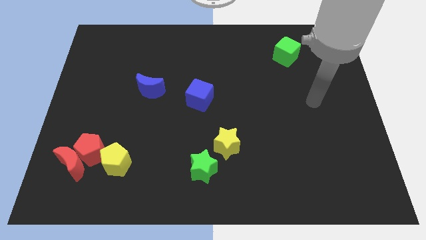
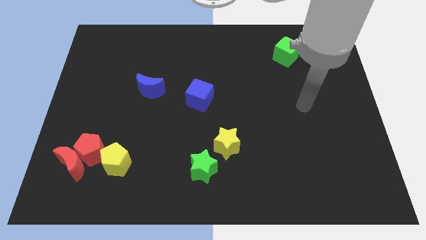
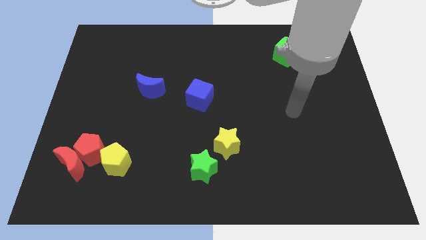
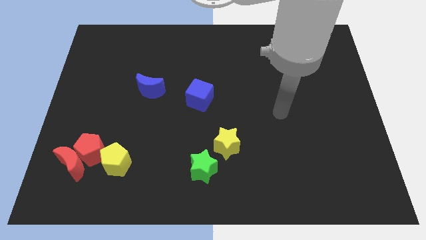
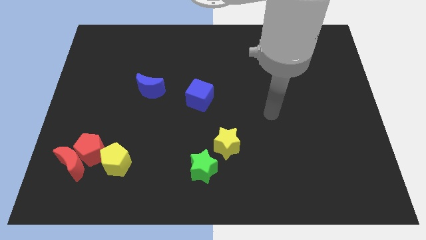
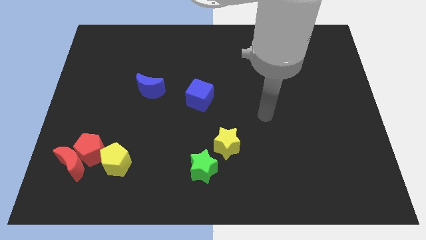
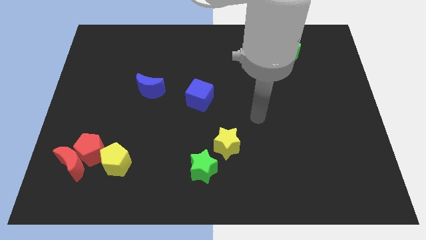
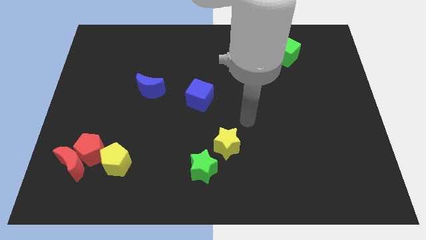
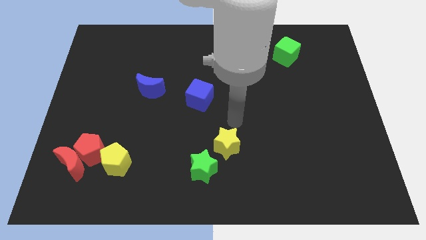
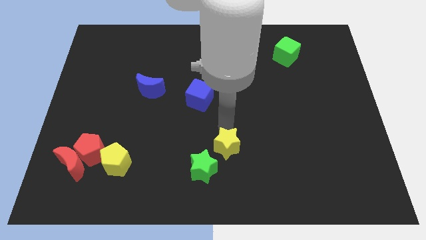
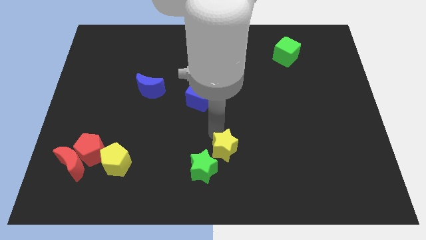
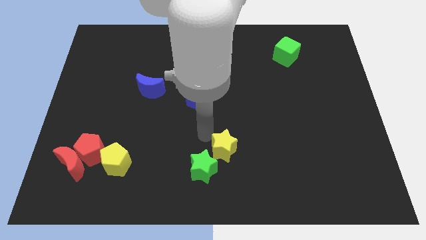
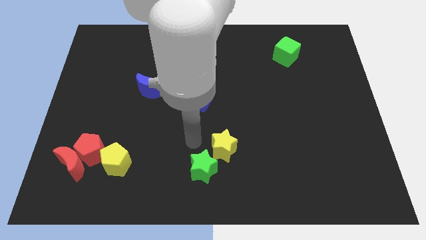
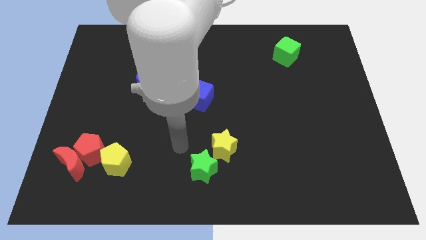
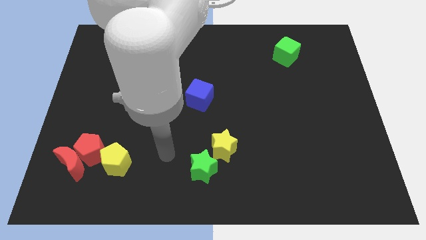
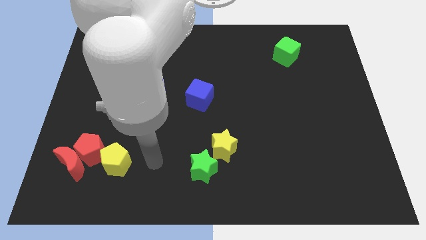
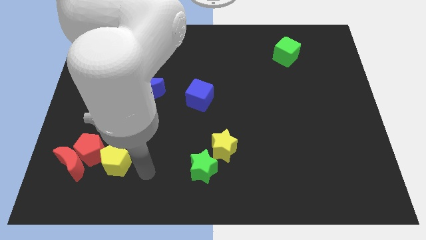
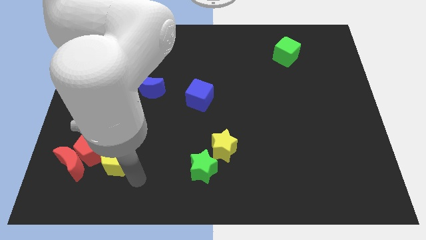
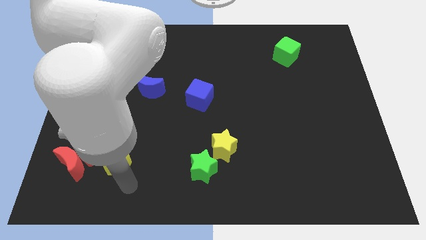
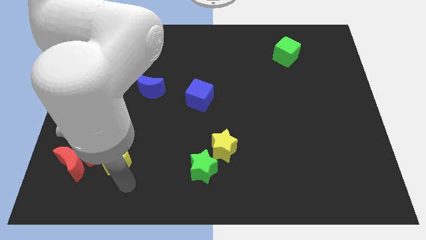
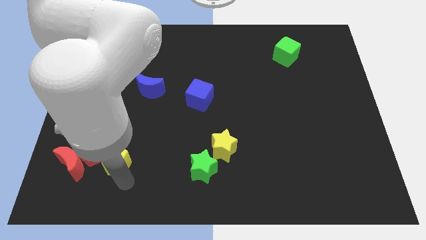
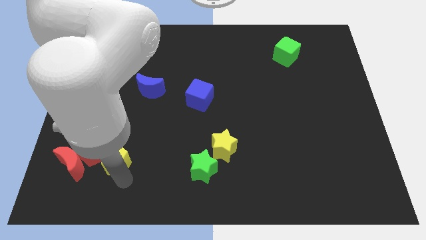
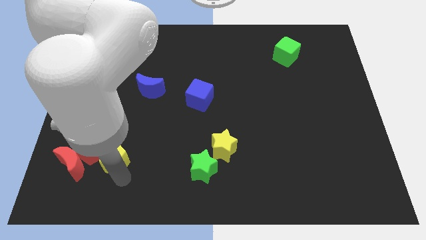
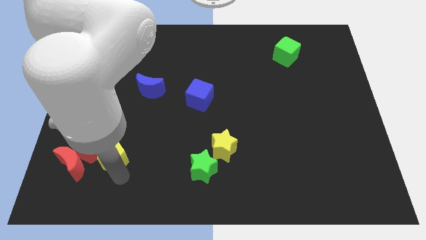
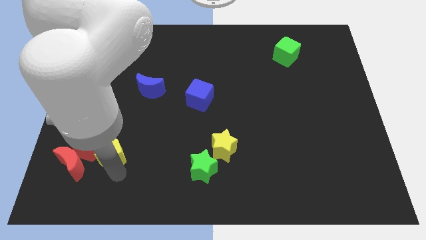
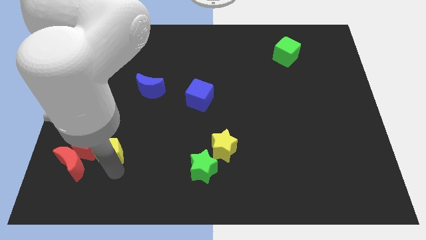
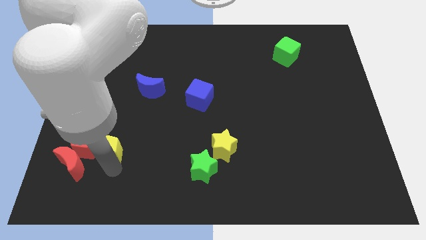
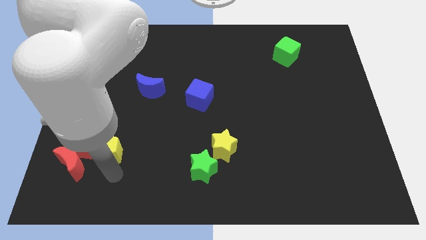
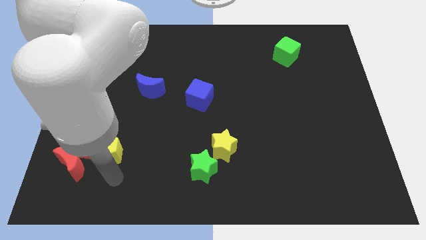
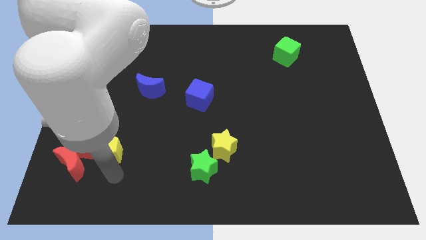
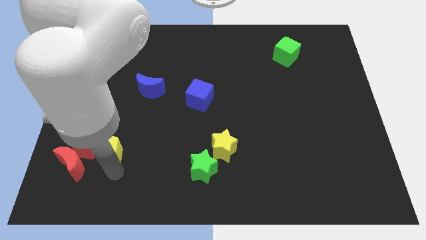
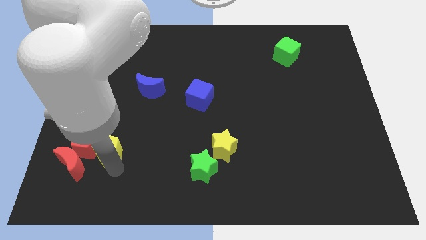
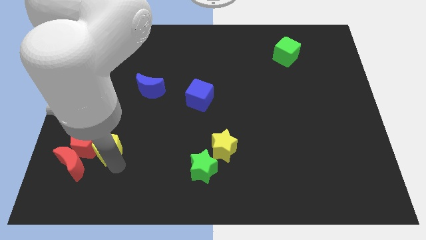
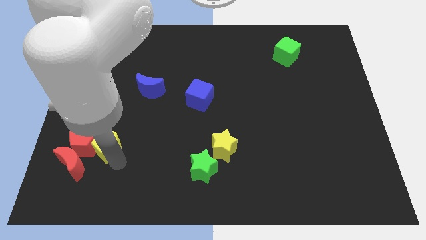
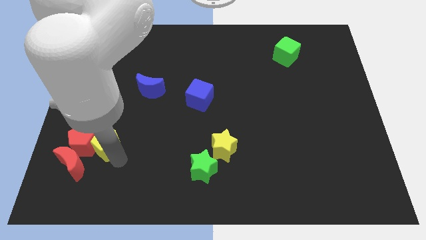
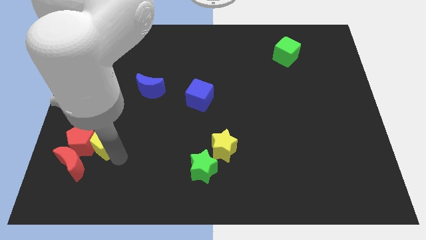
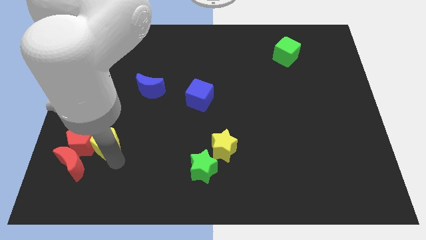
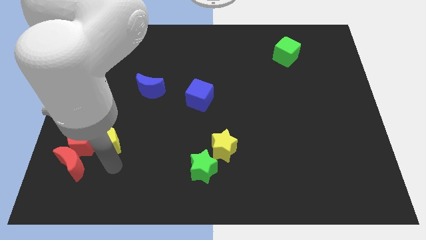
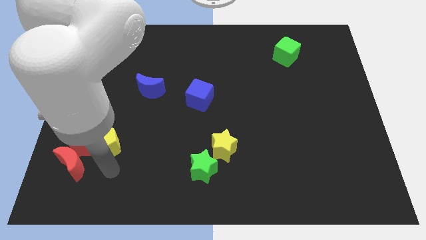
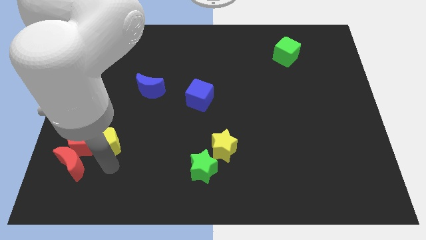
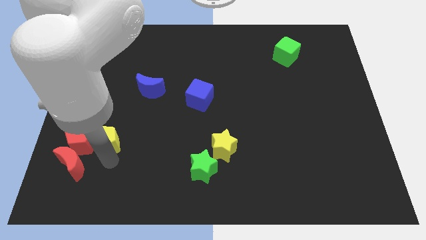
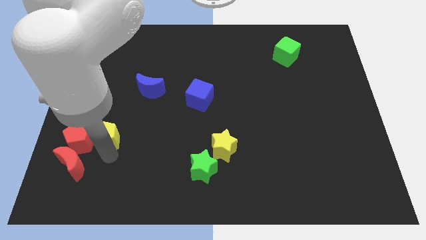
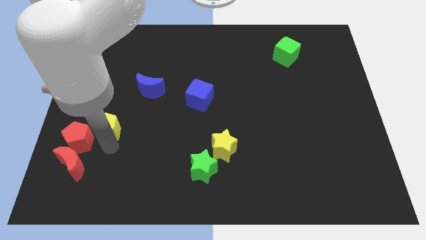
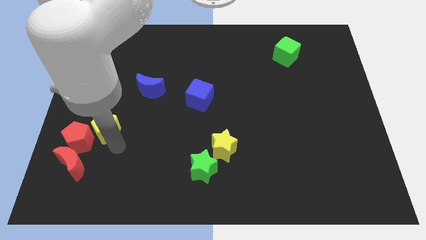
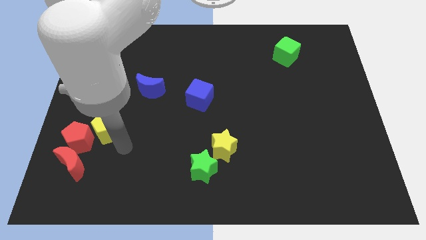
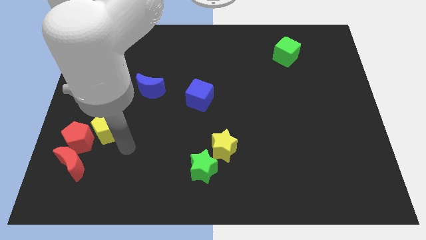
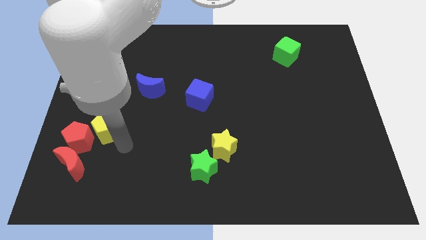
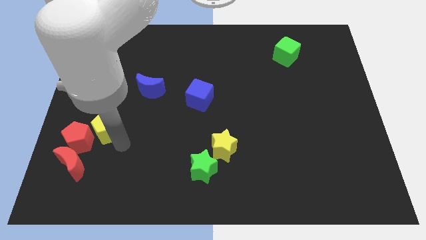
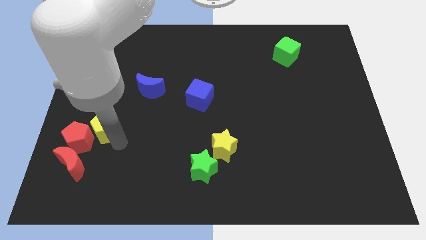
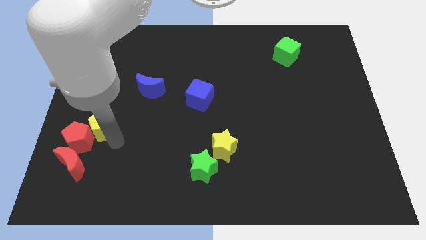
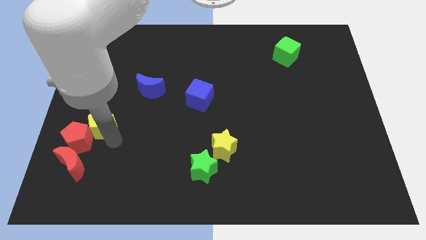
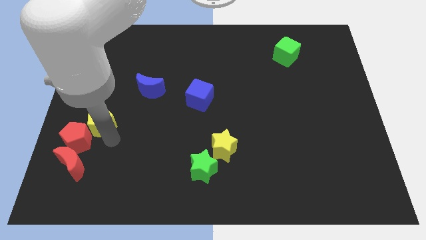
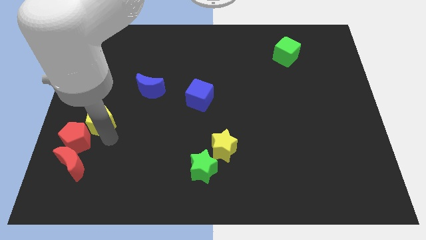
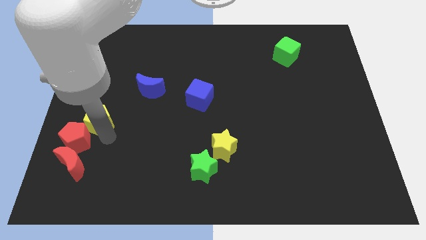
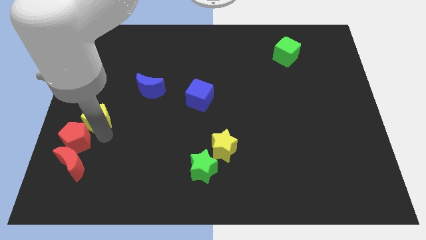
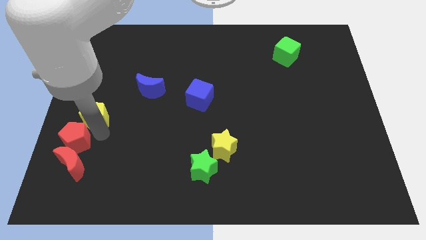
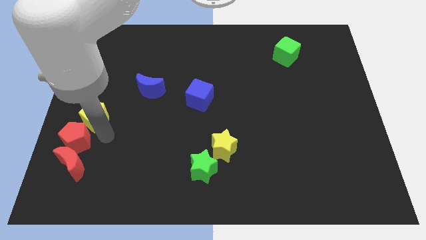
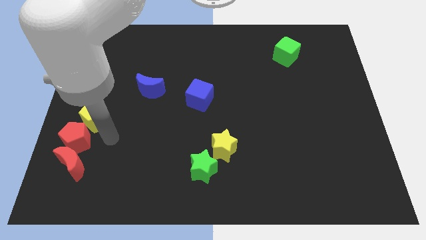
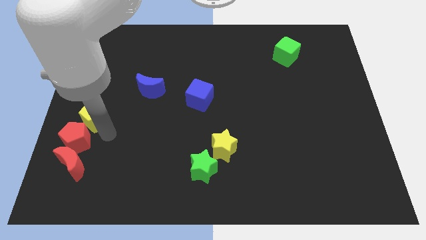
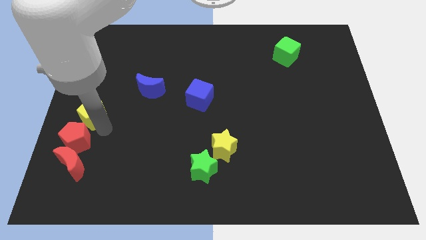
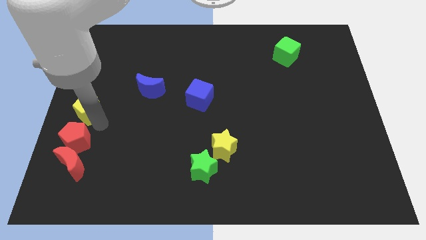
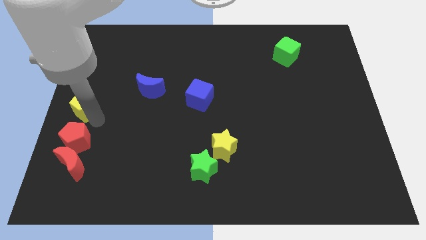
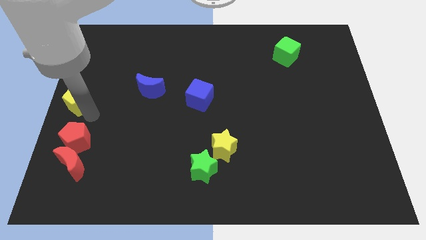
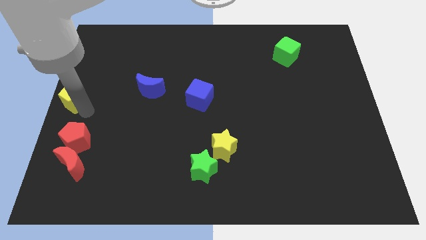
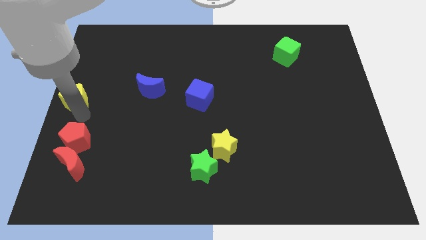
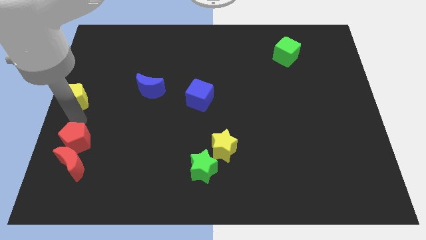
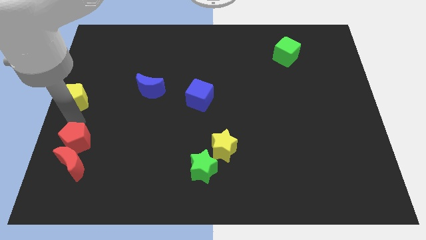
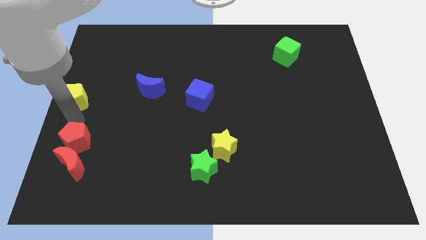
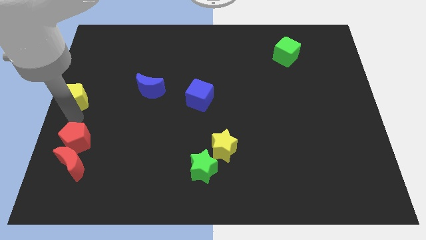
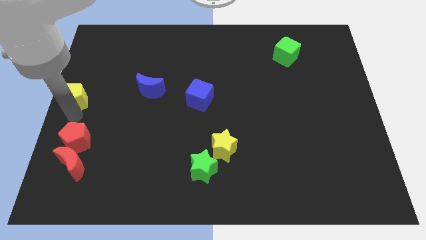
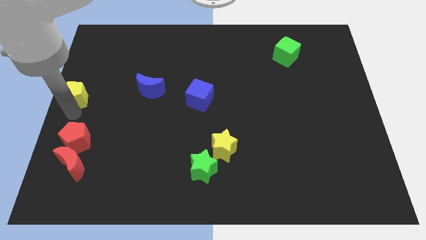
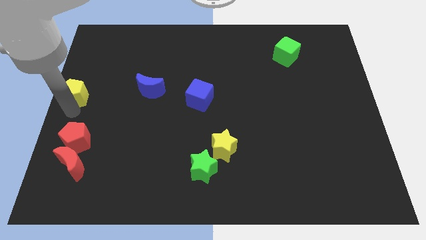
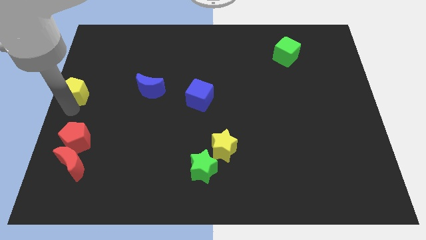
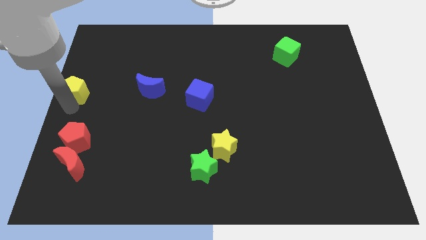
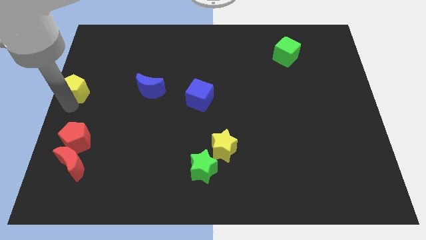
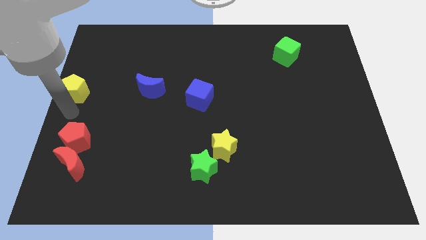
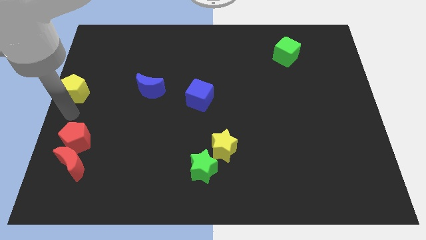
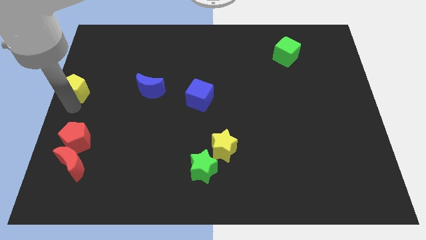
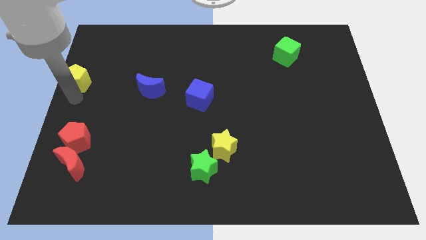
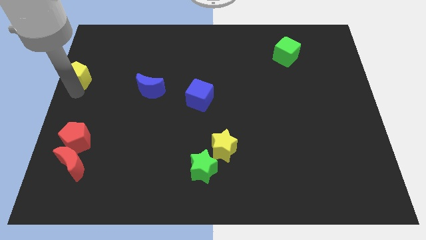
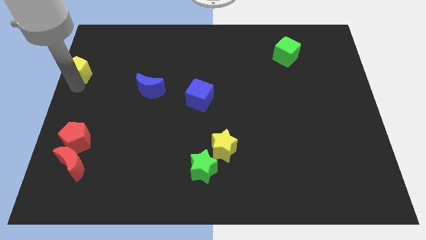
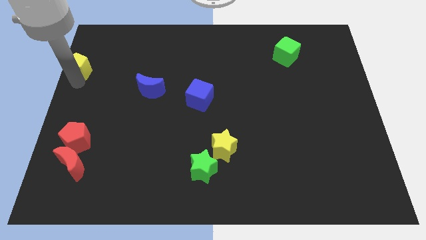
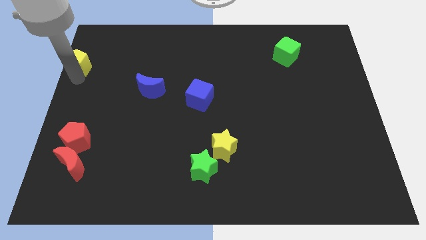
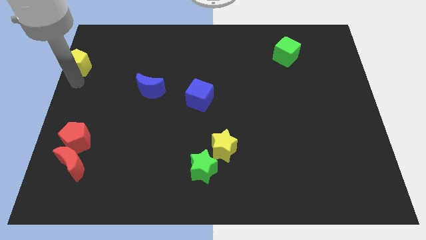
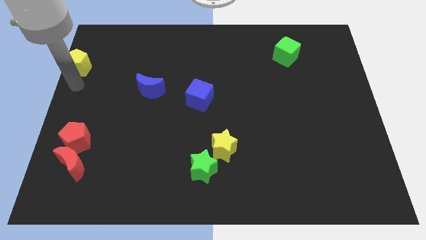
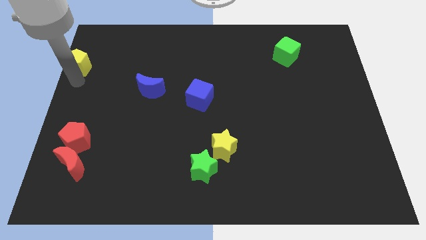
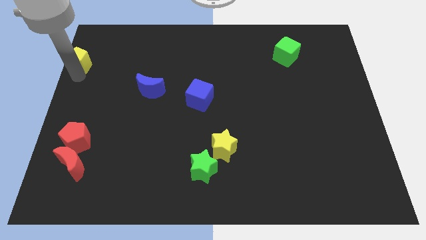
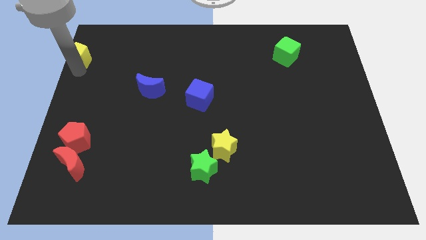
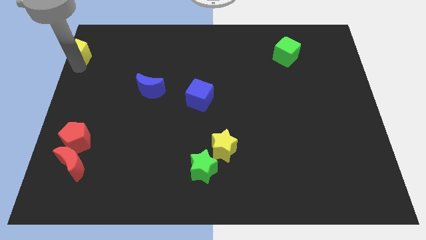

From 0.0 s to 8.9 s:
move the yellow pentagon to the top left corner
